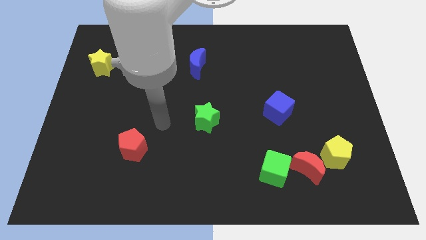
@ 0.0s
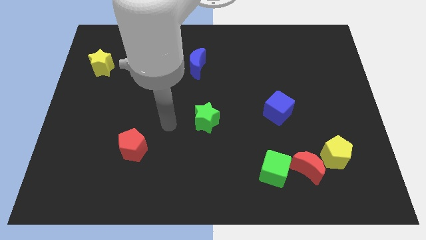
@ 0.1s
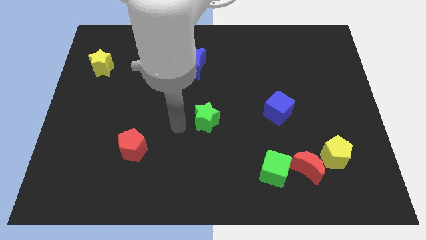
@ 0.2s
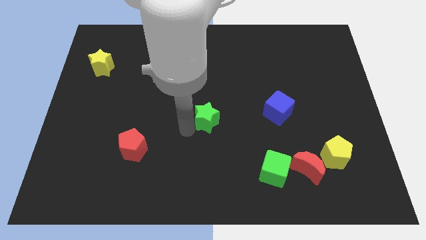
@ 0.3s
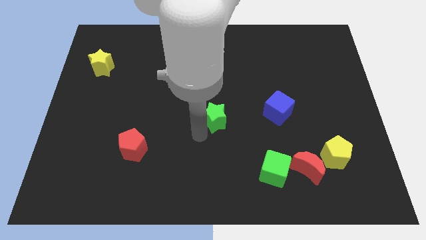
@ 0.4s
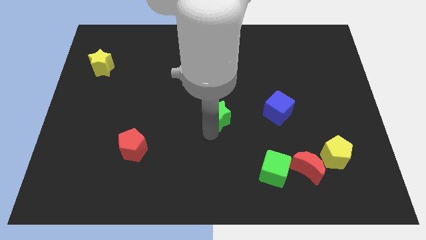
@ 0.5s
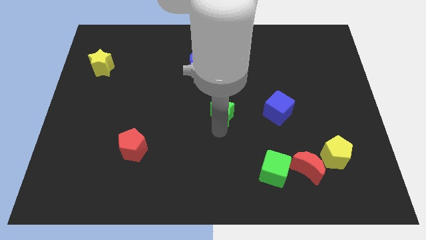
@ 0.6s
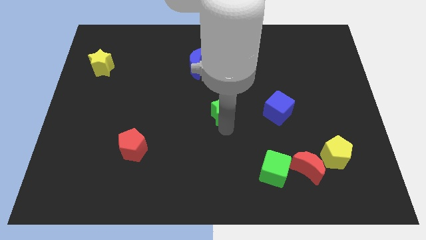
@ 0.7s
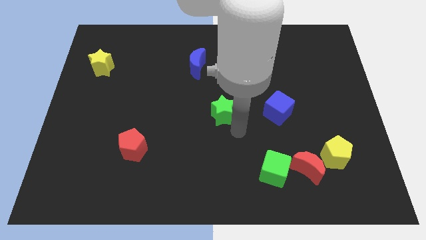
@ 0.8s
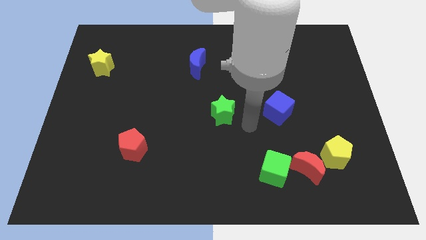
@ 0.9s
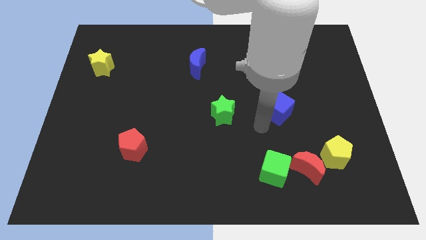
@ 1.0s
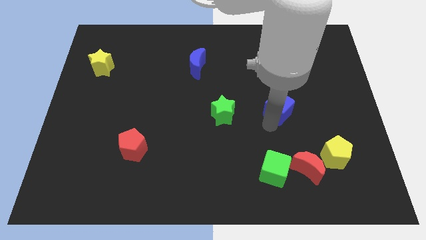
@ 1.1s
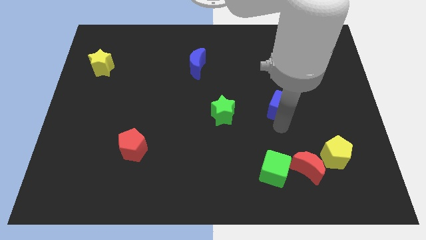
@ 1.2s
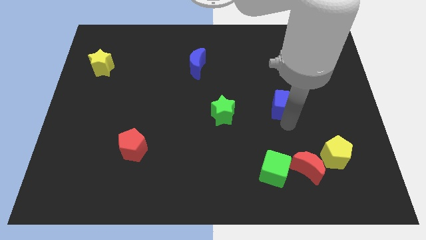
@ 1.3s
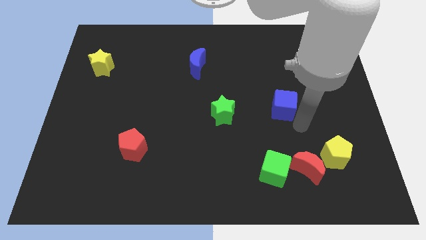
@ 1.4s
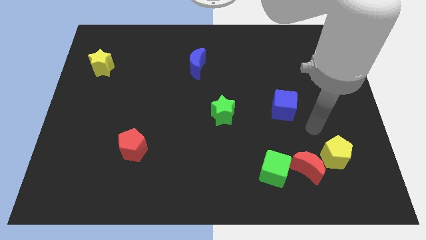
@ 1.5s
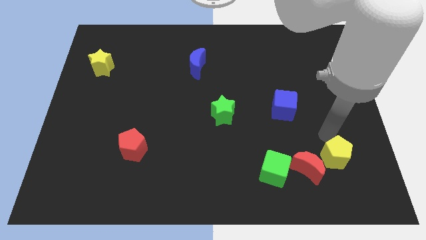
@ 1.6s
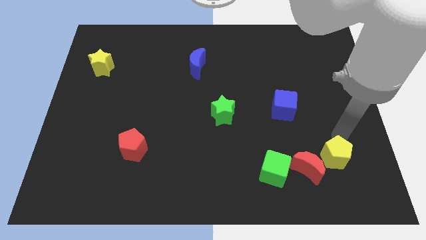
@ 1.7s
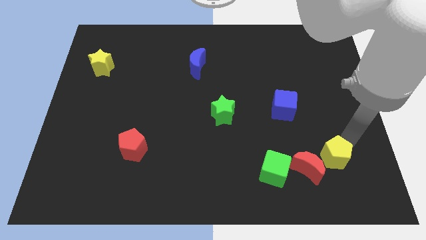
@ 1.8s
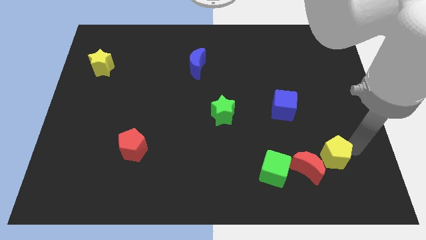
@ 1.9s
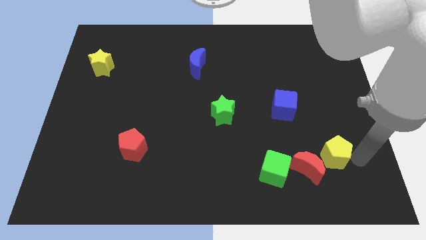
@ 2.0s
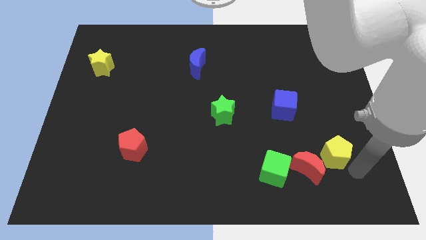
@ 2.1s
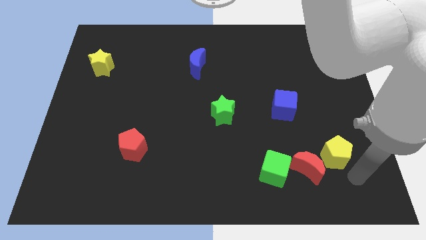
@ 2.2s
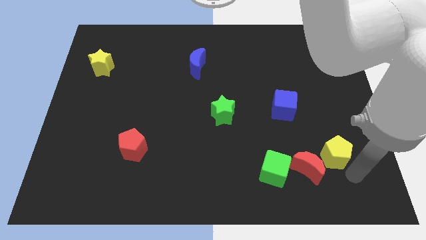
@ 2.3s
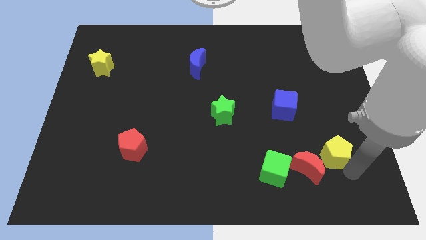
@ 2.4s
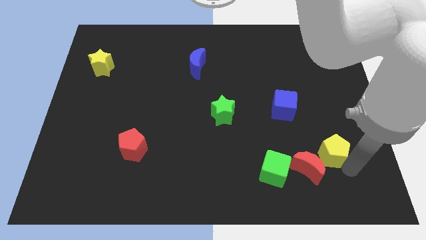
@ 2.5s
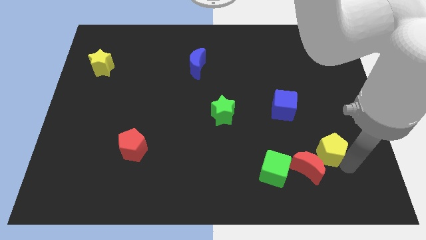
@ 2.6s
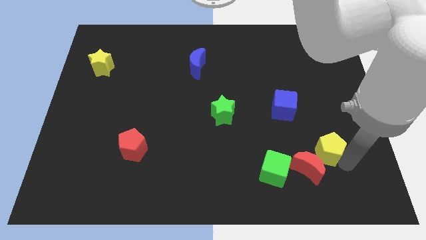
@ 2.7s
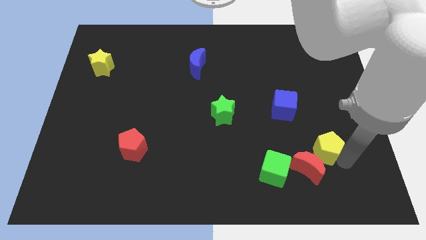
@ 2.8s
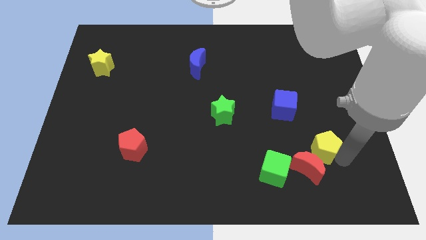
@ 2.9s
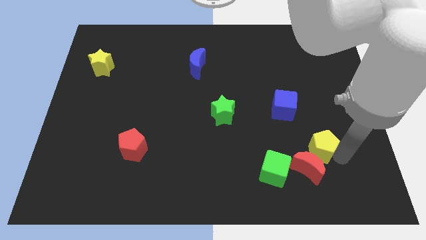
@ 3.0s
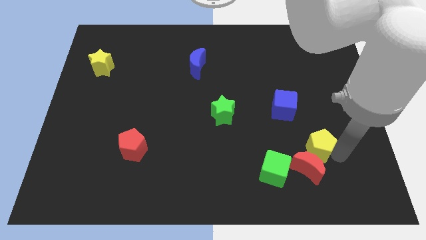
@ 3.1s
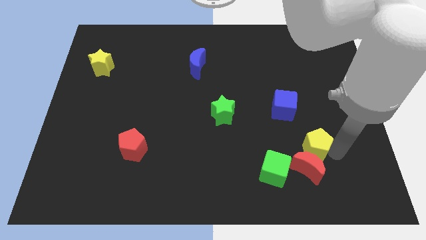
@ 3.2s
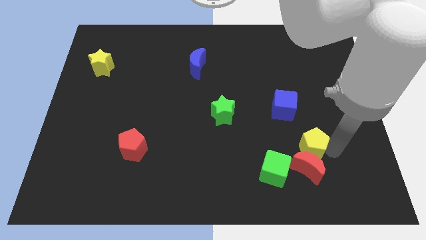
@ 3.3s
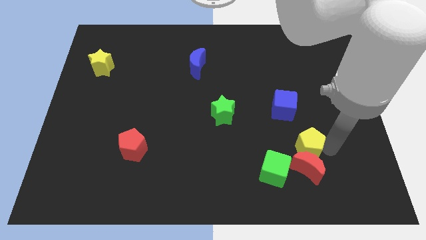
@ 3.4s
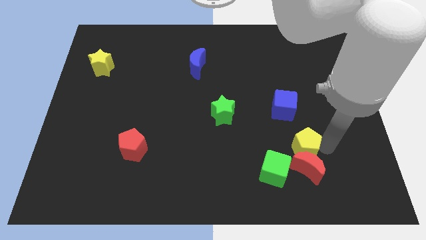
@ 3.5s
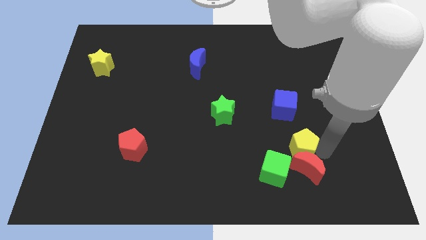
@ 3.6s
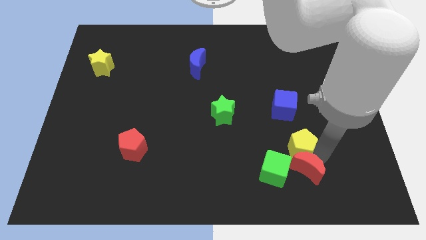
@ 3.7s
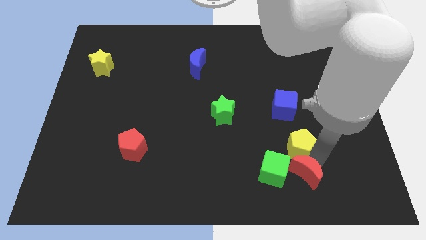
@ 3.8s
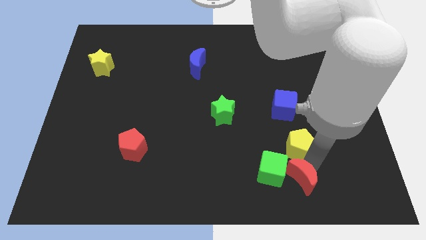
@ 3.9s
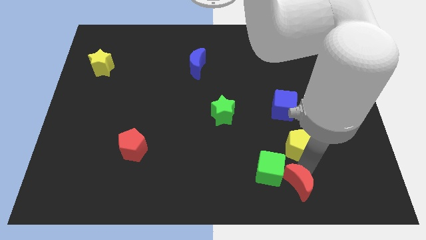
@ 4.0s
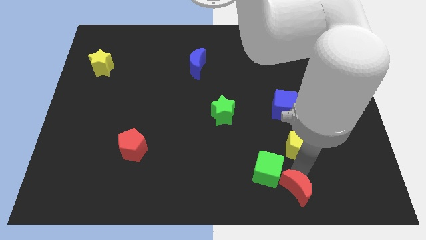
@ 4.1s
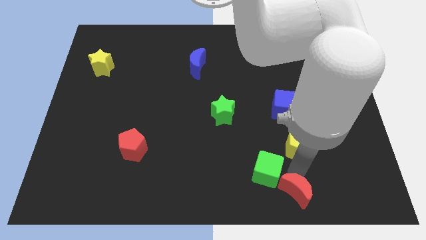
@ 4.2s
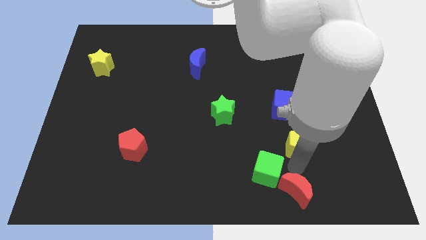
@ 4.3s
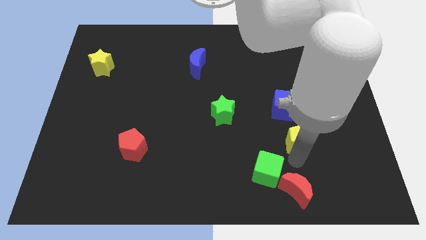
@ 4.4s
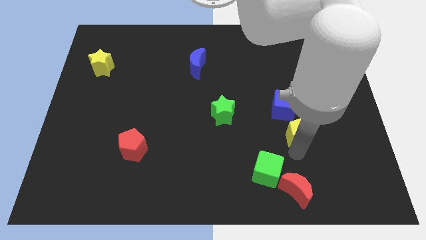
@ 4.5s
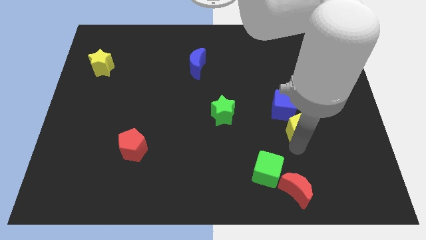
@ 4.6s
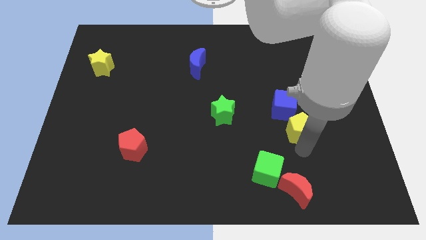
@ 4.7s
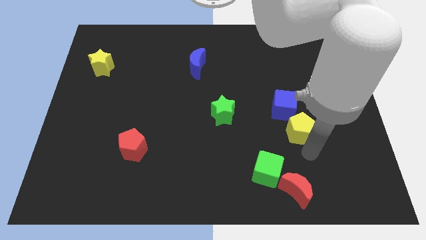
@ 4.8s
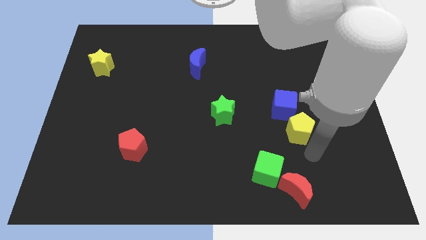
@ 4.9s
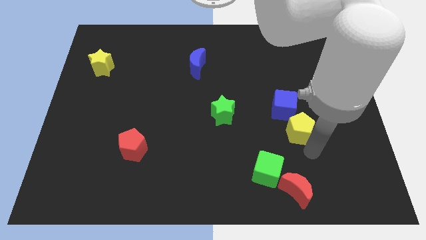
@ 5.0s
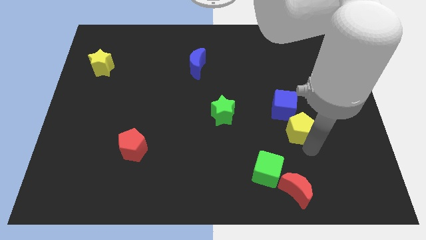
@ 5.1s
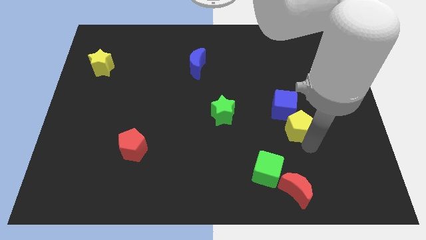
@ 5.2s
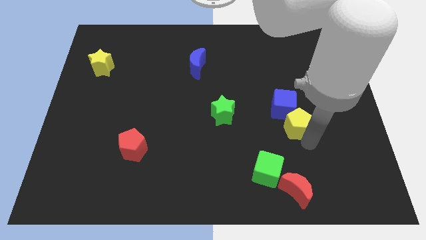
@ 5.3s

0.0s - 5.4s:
move the yellow pentagon to the blue cube
